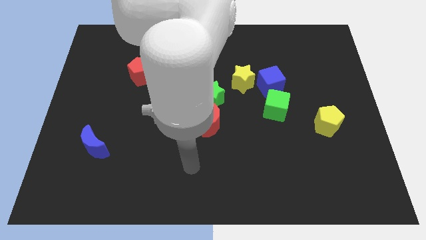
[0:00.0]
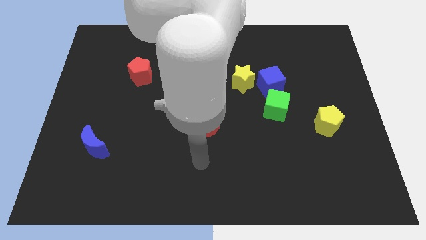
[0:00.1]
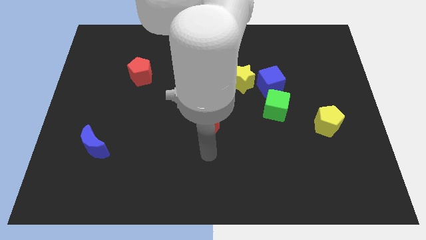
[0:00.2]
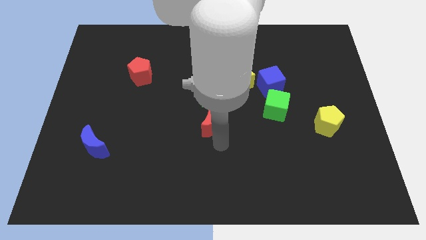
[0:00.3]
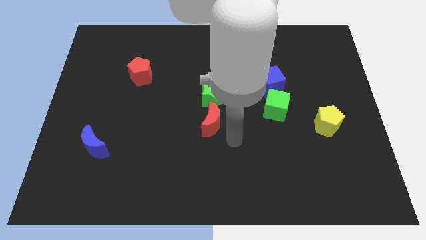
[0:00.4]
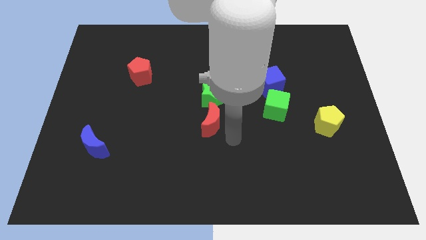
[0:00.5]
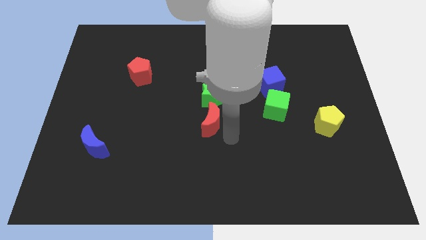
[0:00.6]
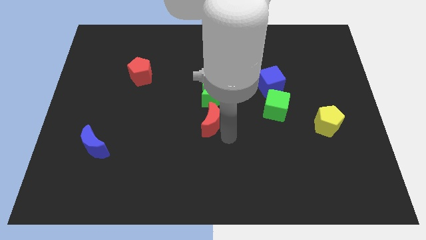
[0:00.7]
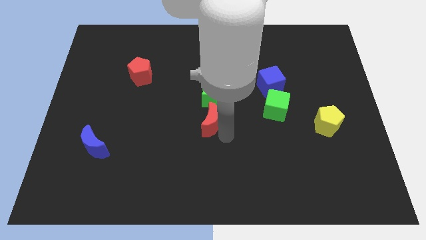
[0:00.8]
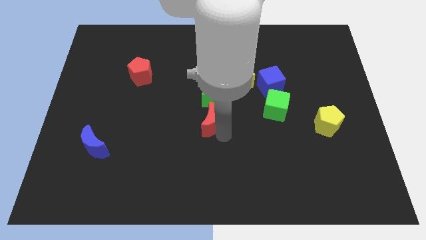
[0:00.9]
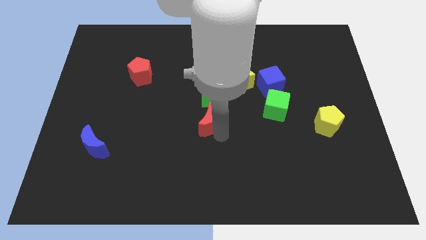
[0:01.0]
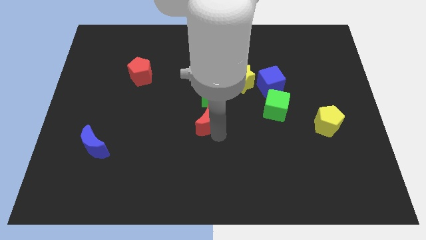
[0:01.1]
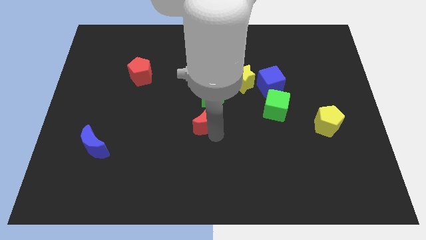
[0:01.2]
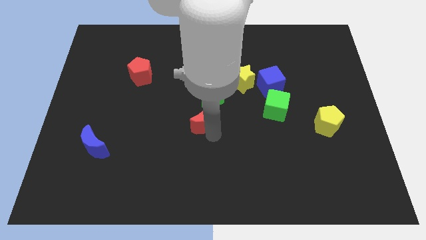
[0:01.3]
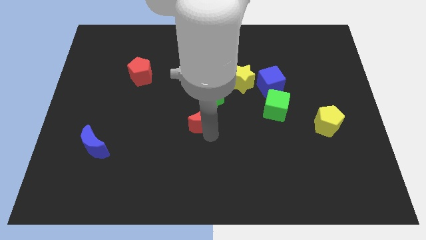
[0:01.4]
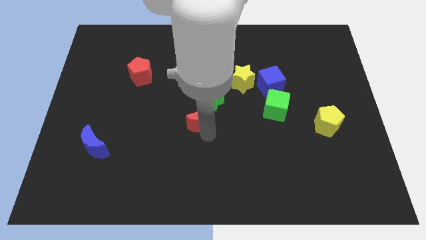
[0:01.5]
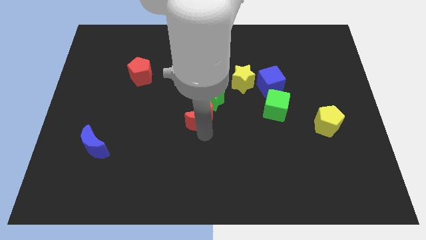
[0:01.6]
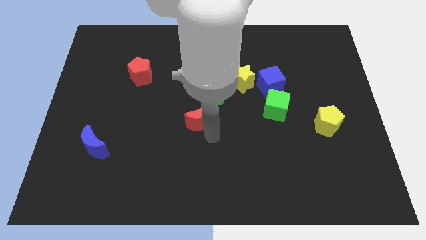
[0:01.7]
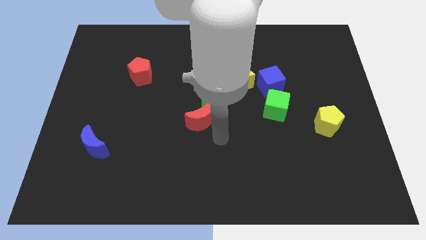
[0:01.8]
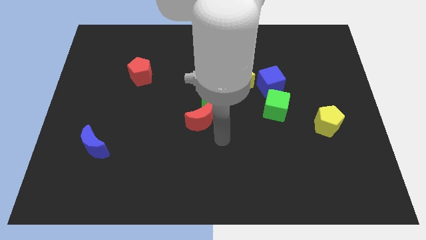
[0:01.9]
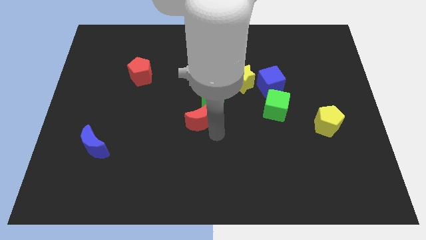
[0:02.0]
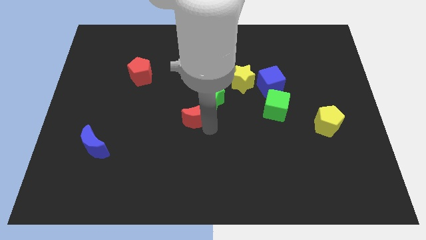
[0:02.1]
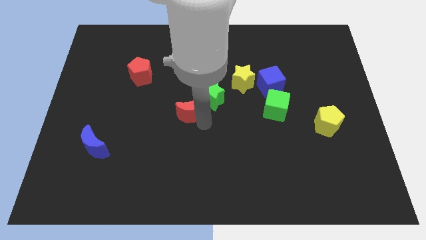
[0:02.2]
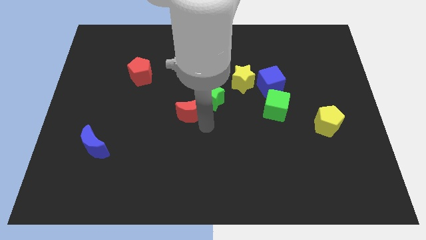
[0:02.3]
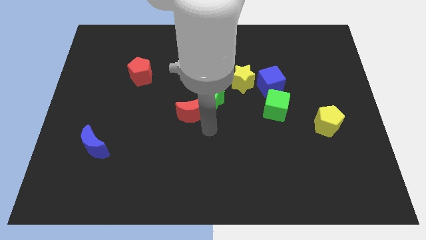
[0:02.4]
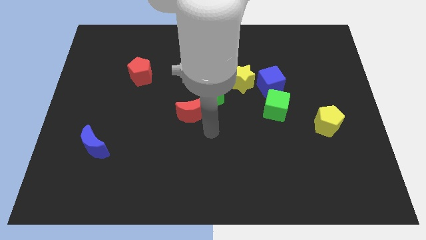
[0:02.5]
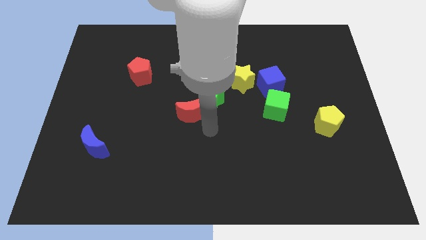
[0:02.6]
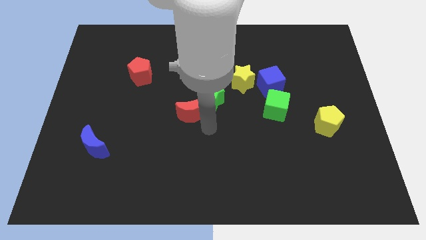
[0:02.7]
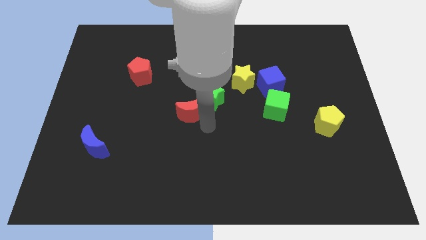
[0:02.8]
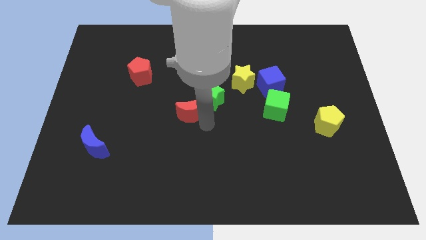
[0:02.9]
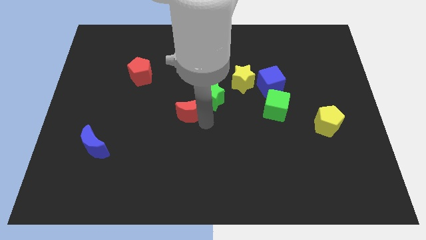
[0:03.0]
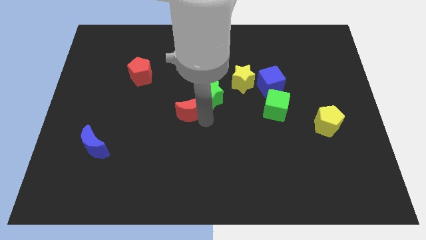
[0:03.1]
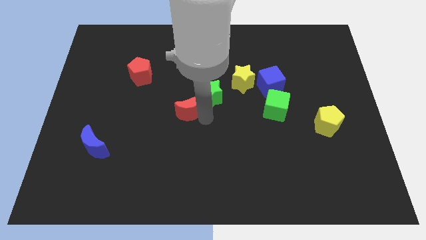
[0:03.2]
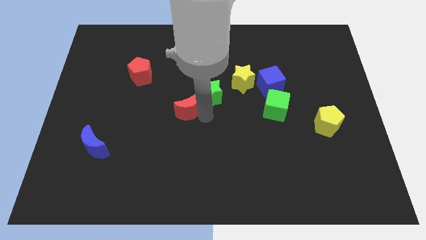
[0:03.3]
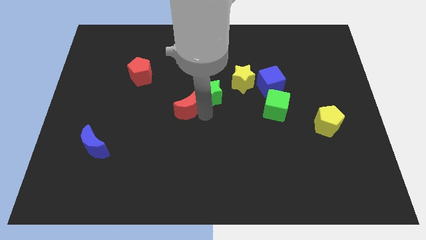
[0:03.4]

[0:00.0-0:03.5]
move the red moon upwards and left a little

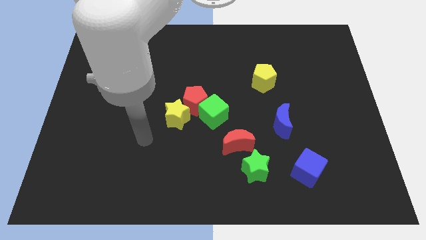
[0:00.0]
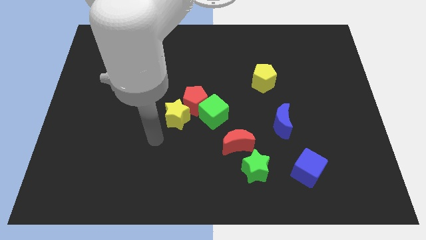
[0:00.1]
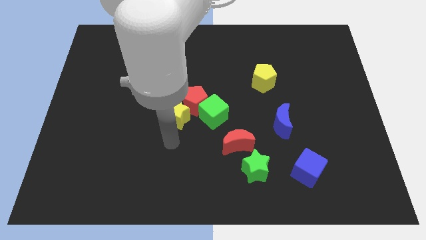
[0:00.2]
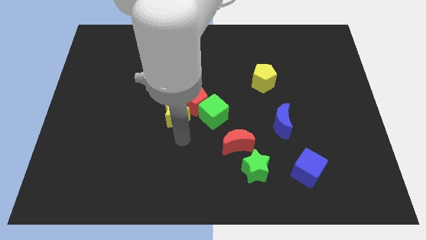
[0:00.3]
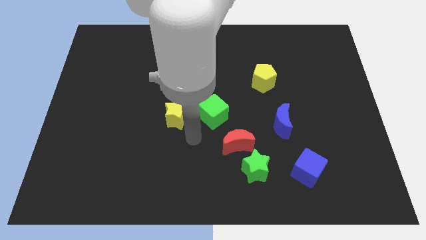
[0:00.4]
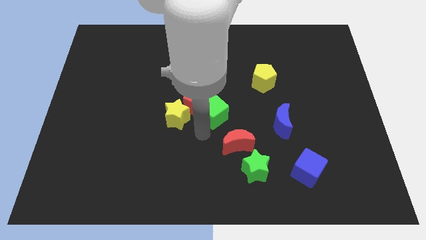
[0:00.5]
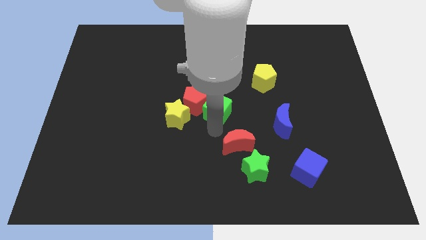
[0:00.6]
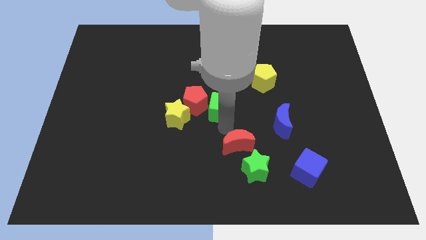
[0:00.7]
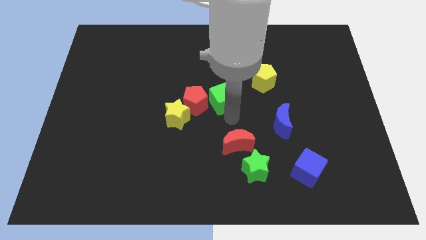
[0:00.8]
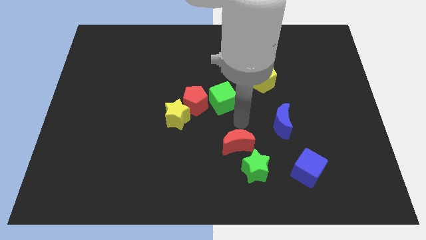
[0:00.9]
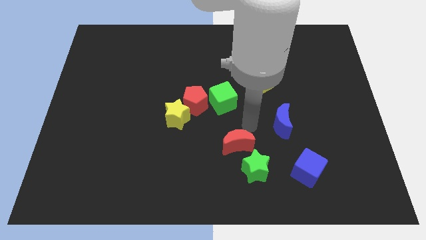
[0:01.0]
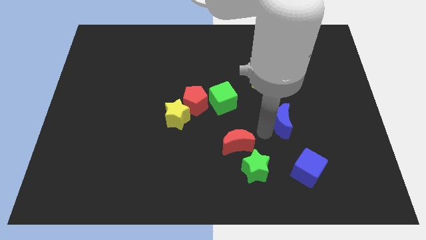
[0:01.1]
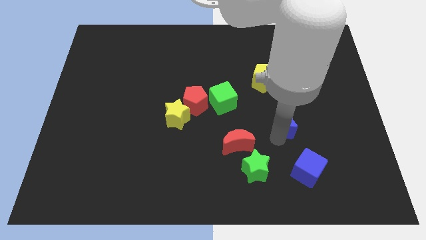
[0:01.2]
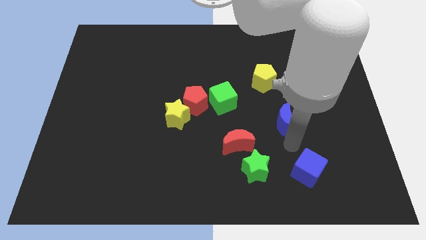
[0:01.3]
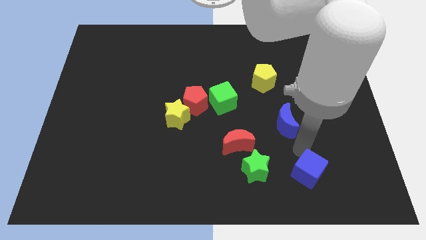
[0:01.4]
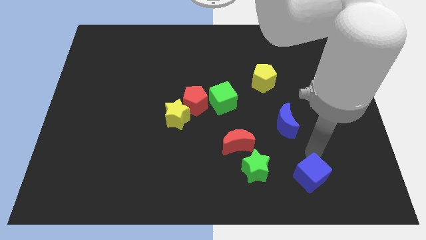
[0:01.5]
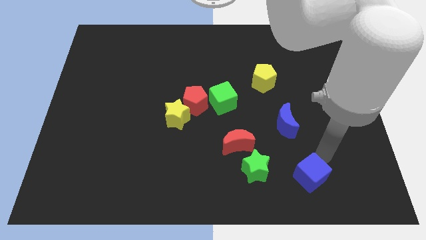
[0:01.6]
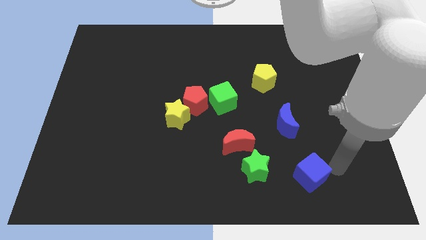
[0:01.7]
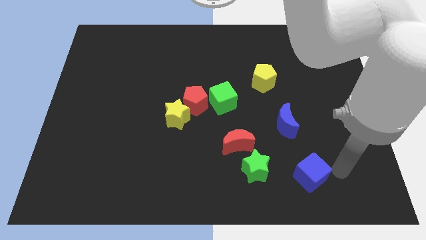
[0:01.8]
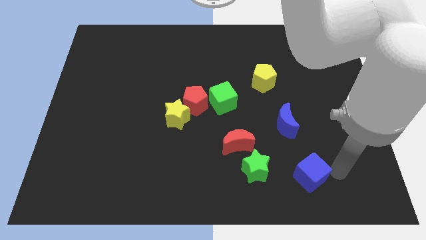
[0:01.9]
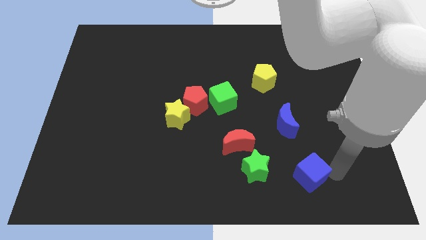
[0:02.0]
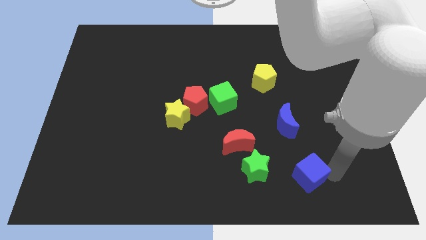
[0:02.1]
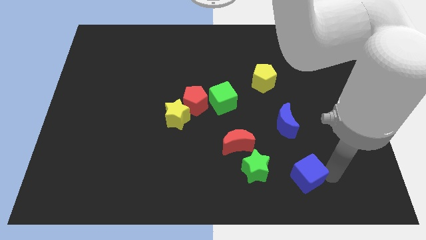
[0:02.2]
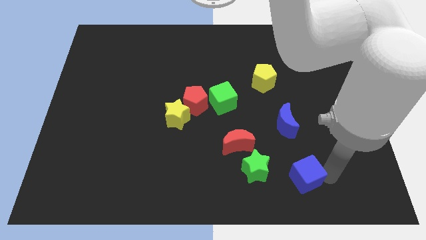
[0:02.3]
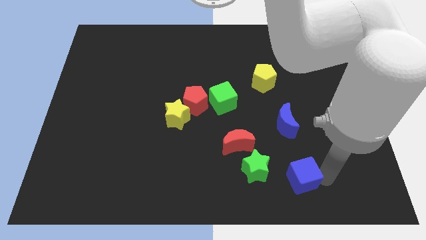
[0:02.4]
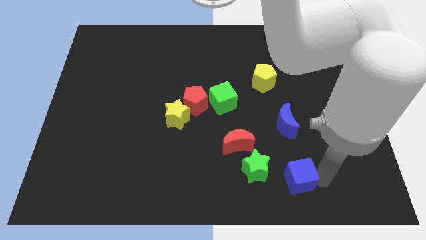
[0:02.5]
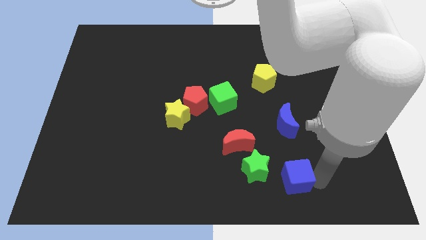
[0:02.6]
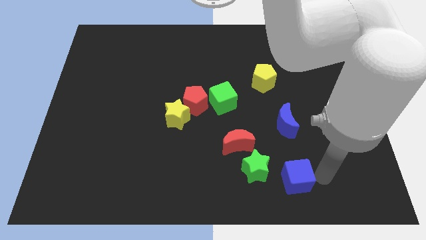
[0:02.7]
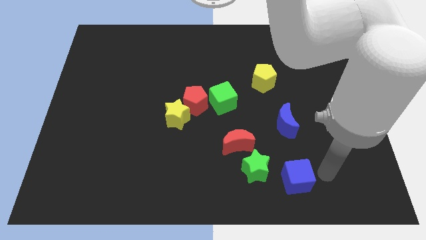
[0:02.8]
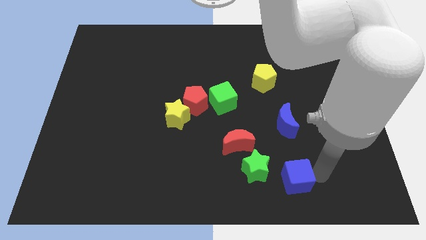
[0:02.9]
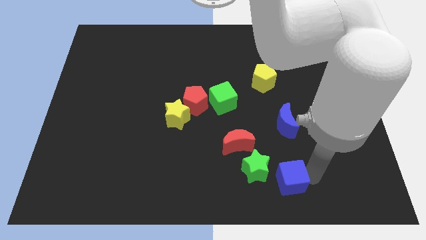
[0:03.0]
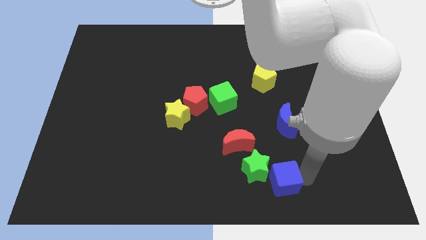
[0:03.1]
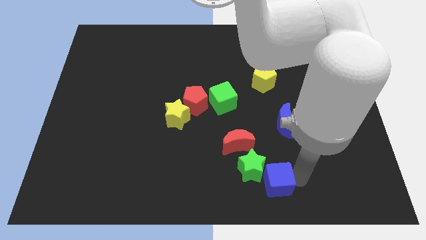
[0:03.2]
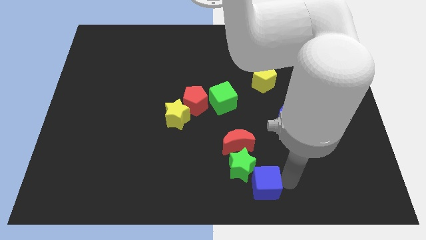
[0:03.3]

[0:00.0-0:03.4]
slightly push the blue cube left

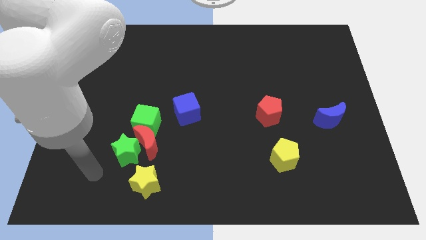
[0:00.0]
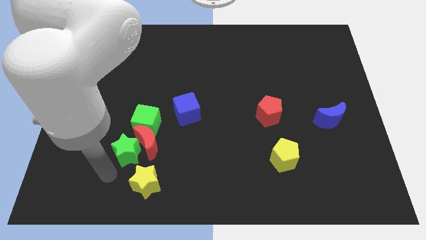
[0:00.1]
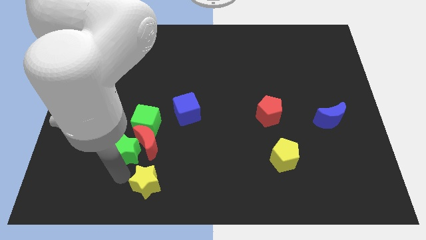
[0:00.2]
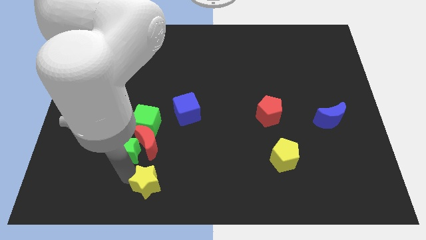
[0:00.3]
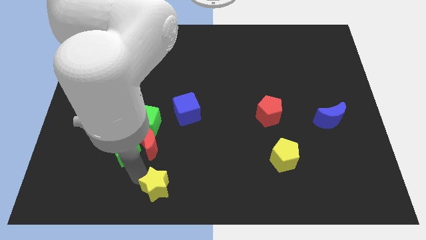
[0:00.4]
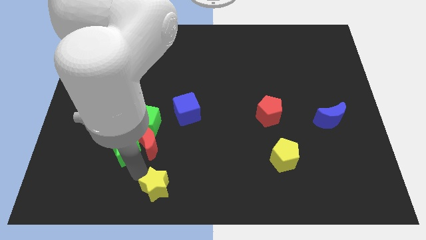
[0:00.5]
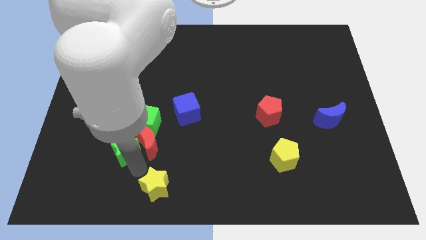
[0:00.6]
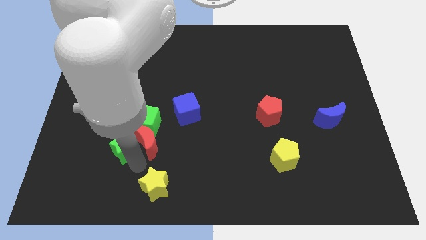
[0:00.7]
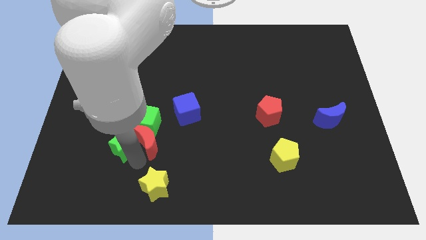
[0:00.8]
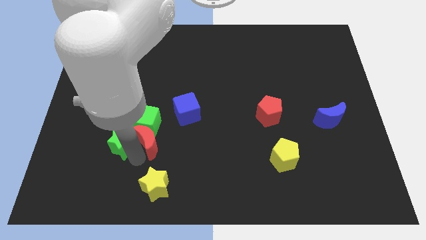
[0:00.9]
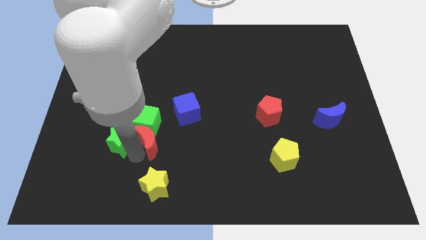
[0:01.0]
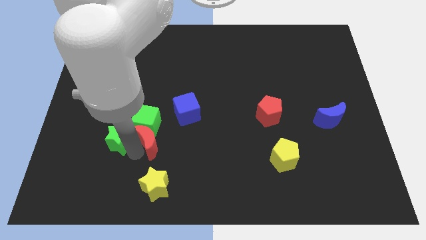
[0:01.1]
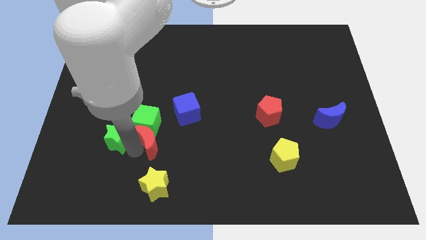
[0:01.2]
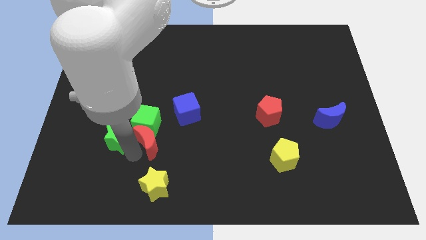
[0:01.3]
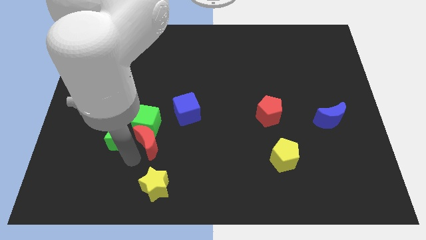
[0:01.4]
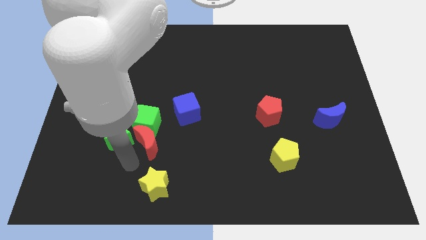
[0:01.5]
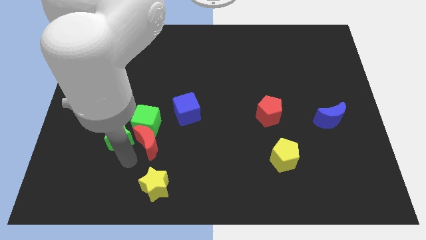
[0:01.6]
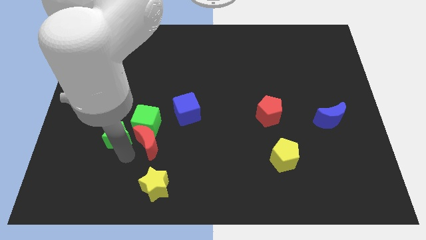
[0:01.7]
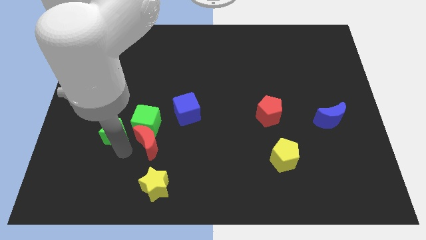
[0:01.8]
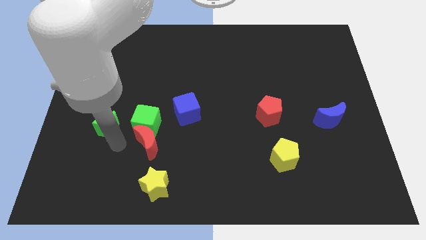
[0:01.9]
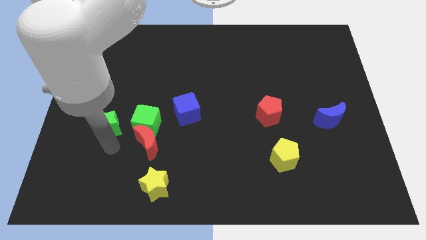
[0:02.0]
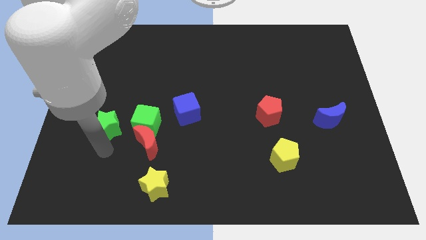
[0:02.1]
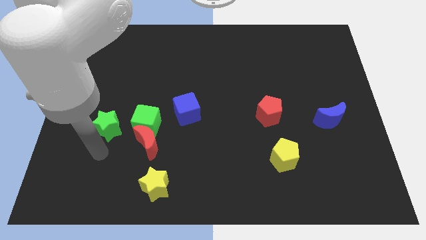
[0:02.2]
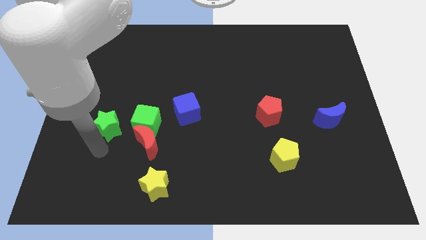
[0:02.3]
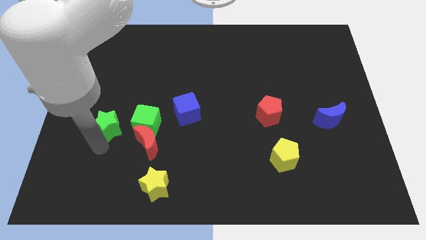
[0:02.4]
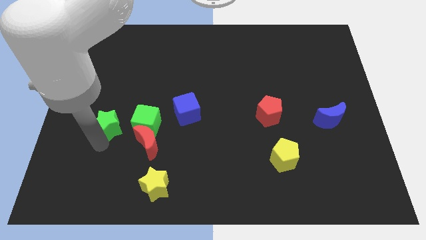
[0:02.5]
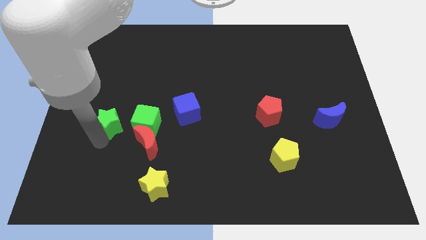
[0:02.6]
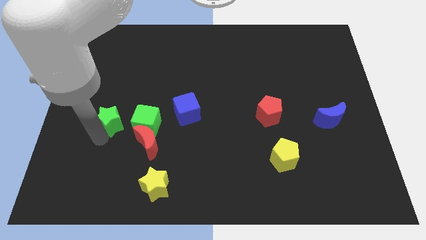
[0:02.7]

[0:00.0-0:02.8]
move the green star a little up
